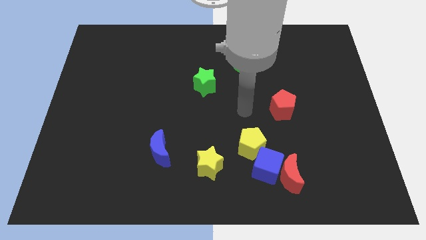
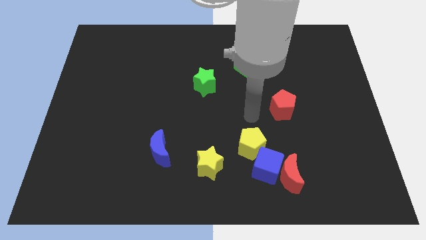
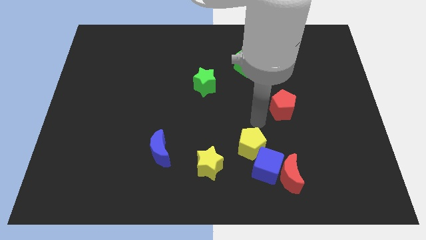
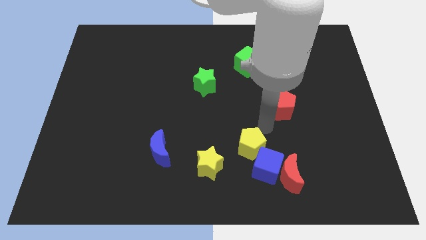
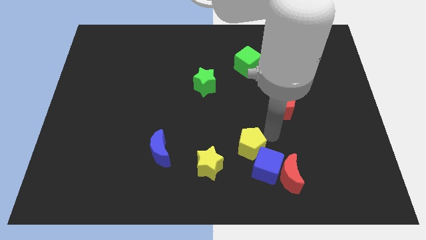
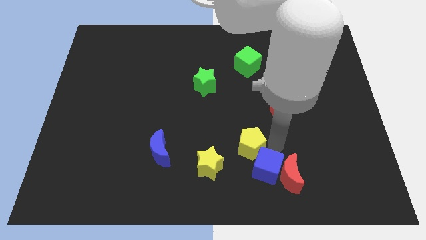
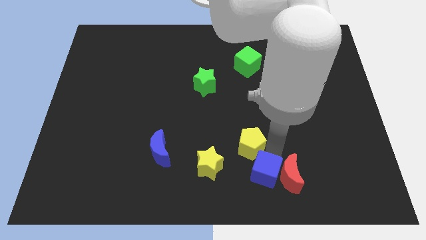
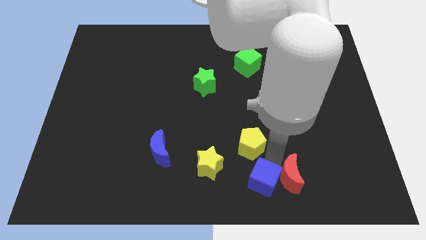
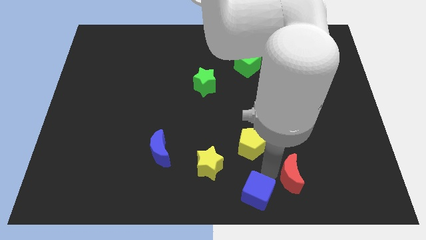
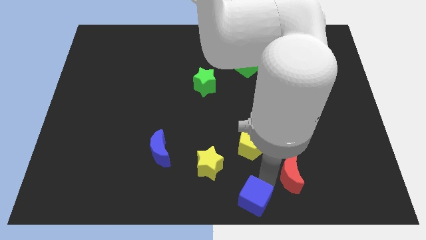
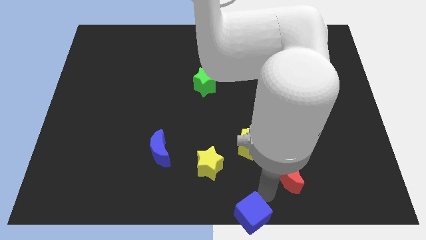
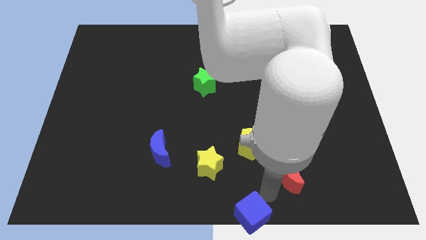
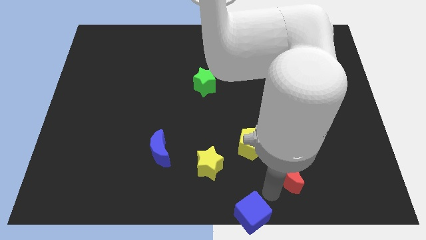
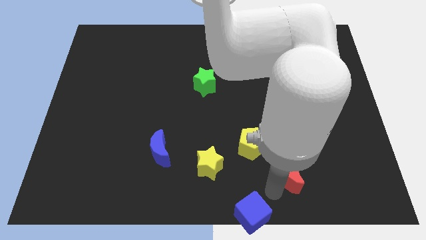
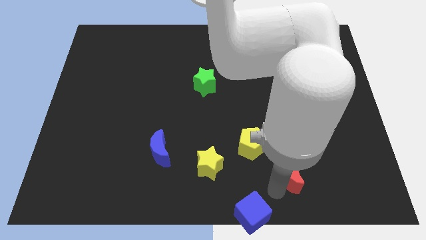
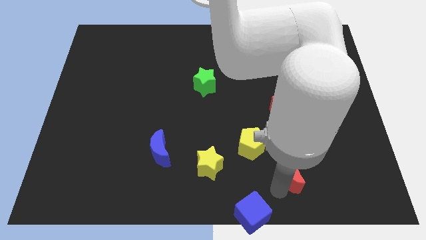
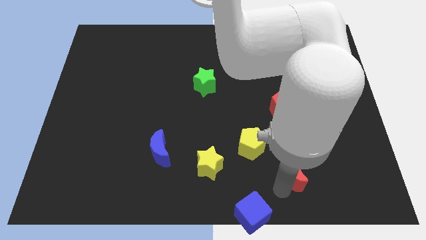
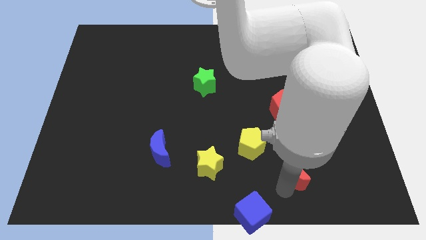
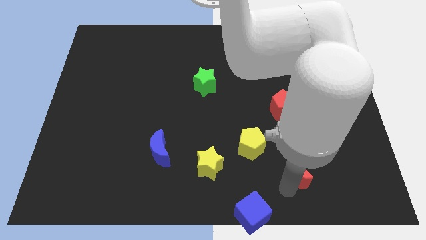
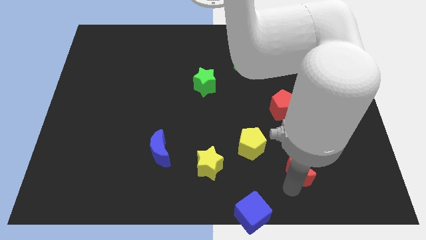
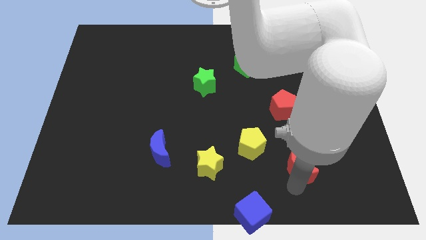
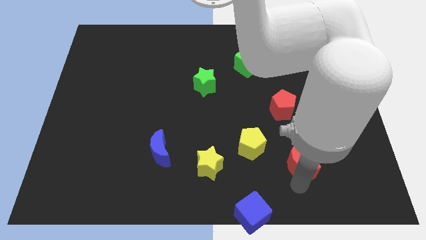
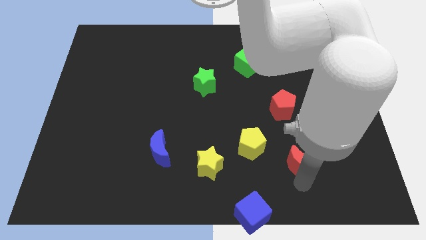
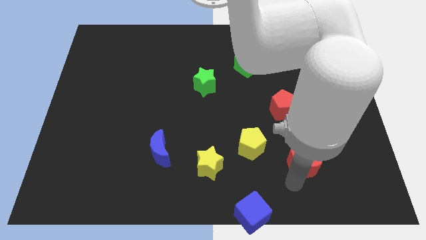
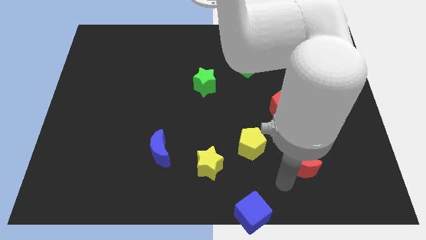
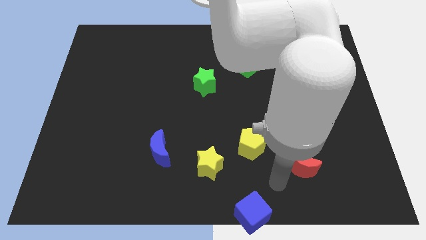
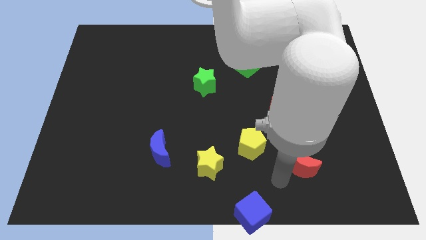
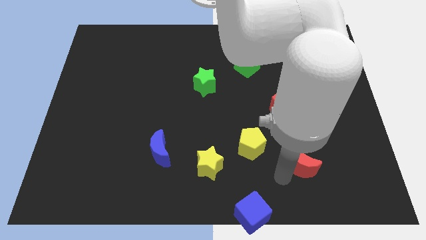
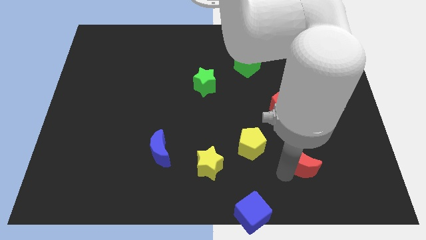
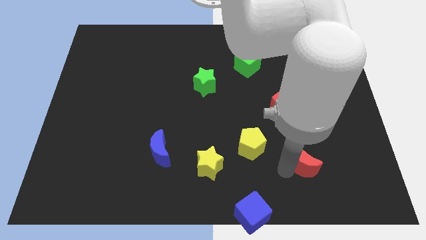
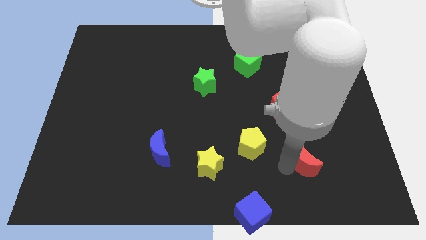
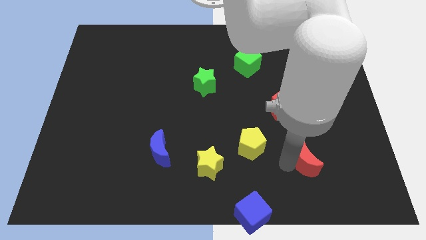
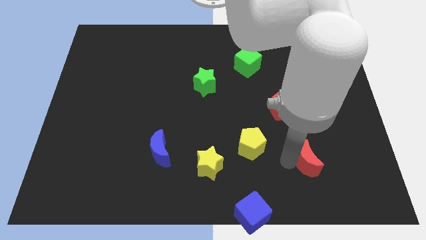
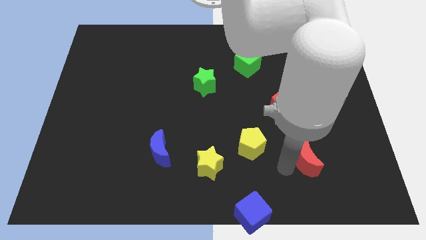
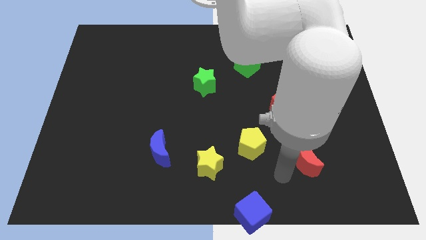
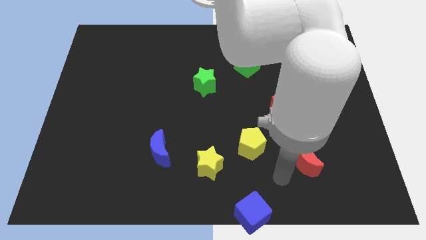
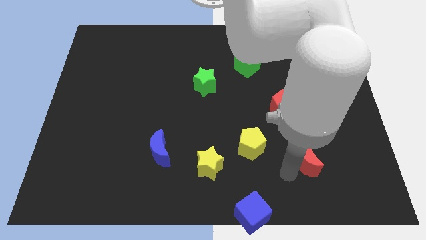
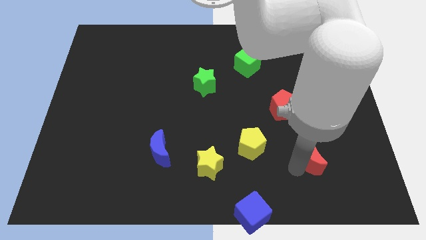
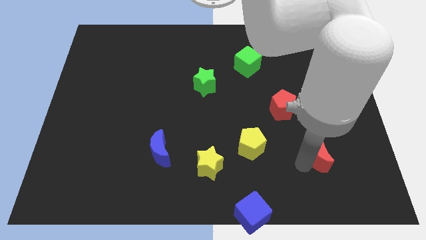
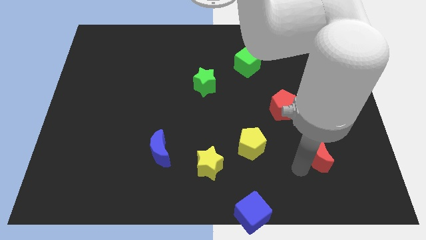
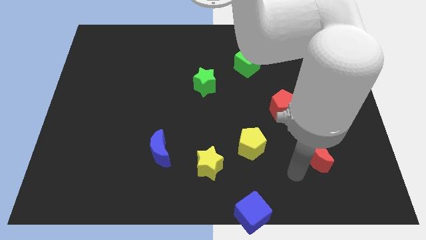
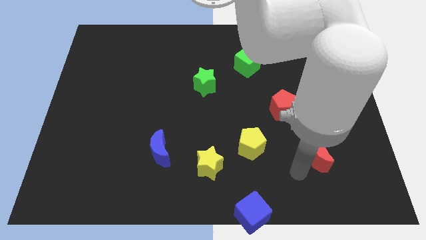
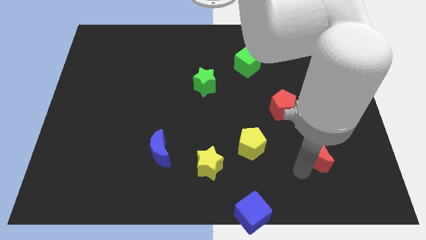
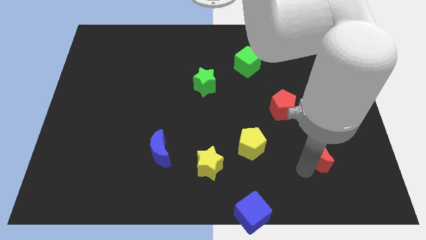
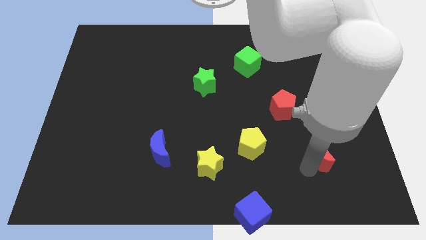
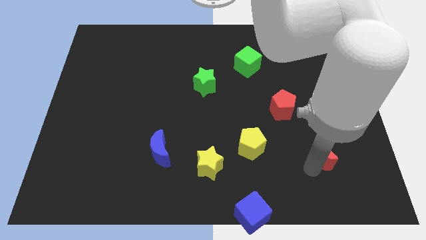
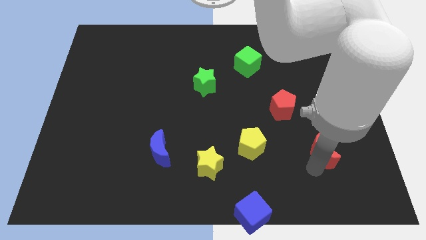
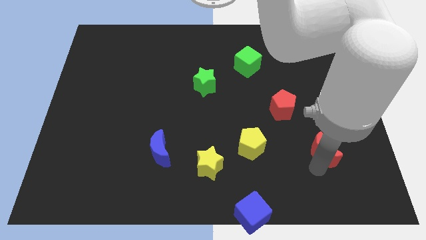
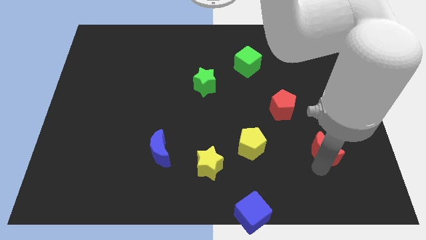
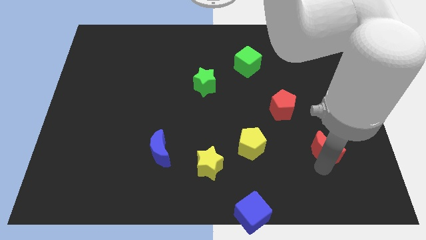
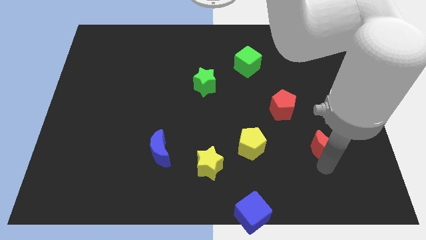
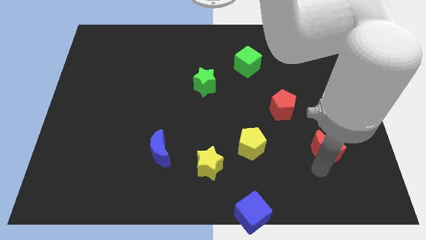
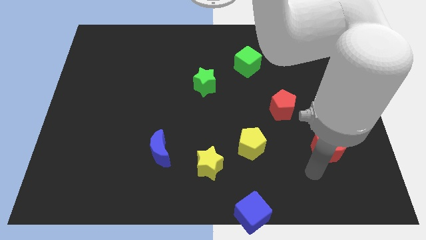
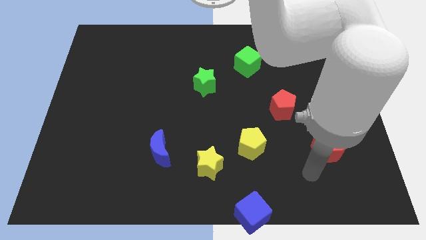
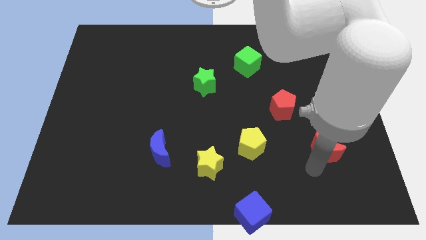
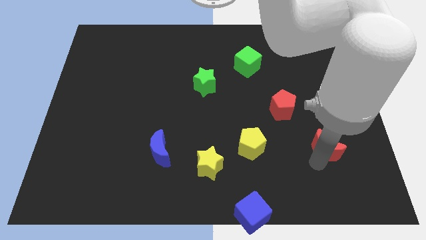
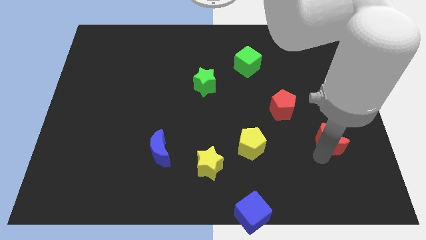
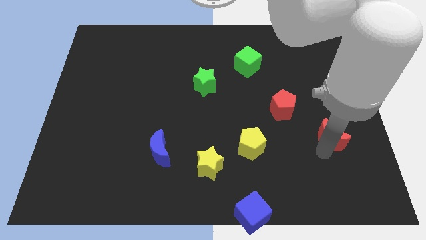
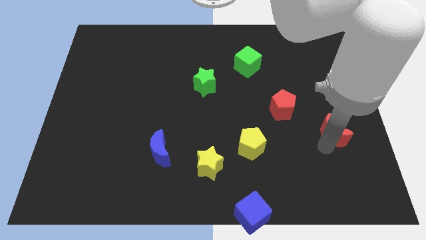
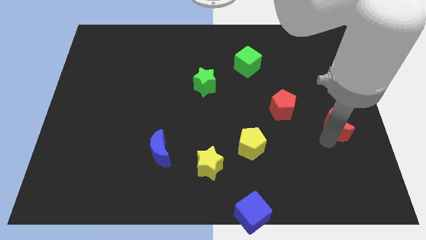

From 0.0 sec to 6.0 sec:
put the red moon to the right side of the board
